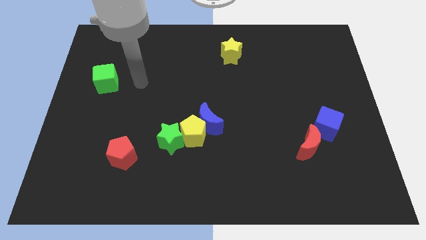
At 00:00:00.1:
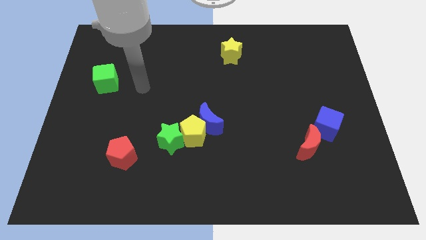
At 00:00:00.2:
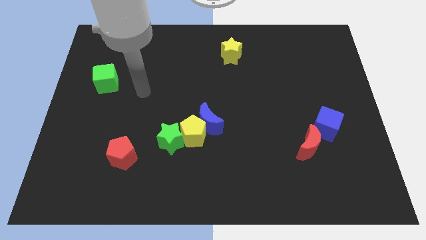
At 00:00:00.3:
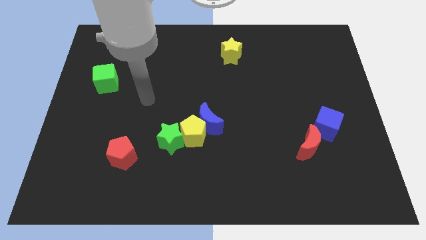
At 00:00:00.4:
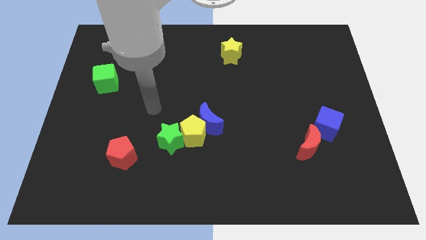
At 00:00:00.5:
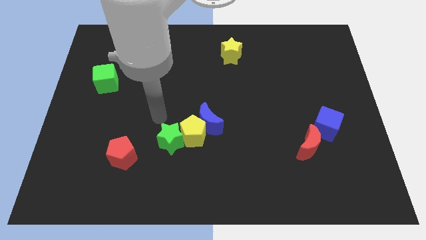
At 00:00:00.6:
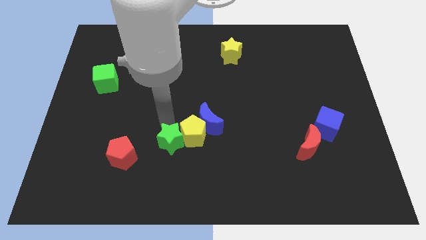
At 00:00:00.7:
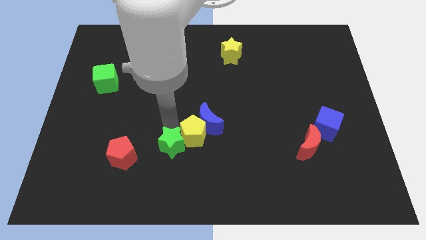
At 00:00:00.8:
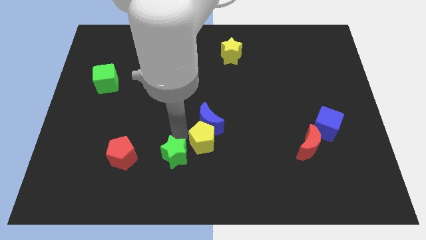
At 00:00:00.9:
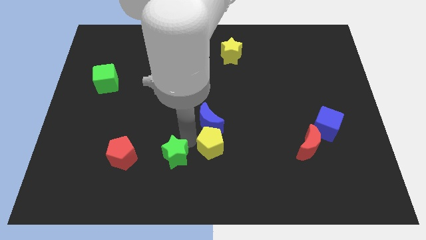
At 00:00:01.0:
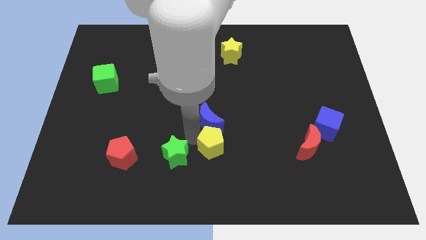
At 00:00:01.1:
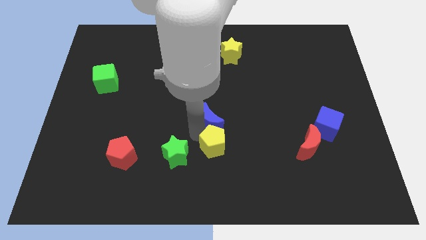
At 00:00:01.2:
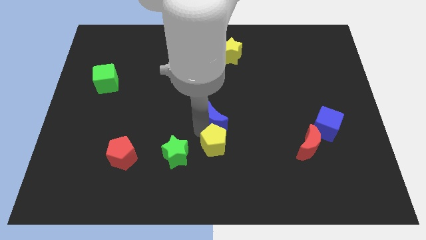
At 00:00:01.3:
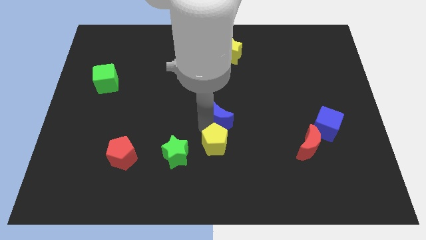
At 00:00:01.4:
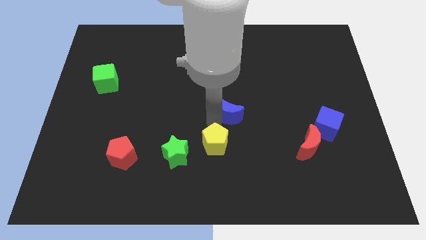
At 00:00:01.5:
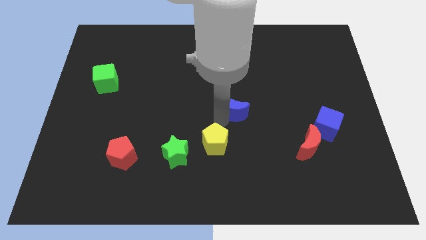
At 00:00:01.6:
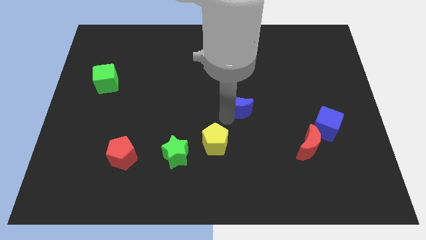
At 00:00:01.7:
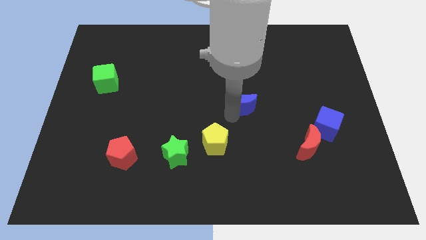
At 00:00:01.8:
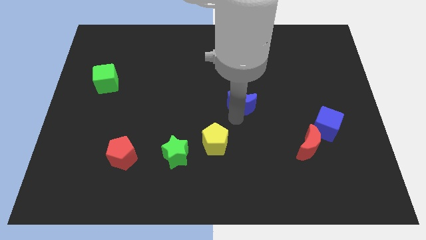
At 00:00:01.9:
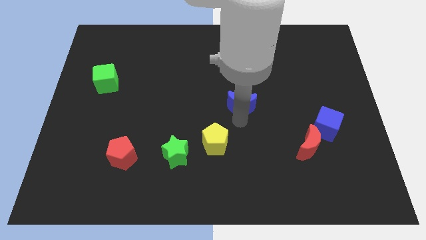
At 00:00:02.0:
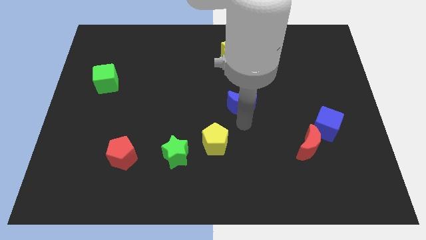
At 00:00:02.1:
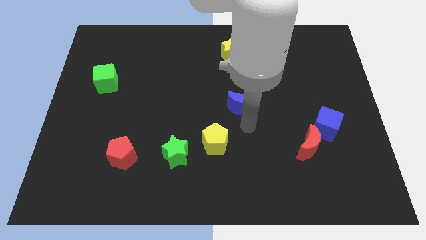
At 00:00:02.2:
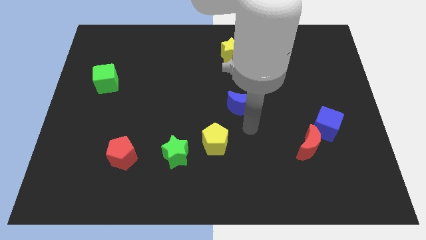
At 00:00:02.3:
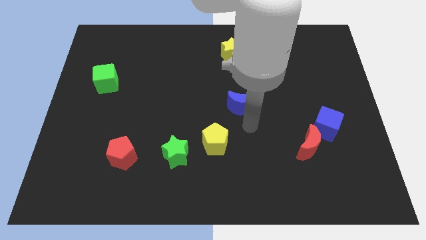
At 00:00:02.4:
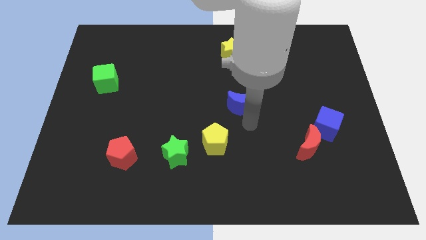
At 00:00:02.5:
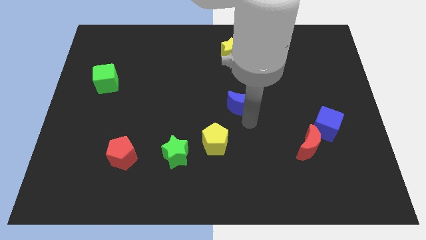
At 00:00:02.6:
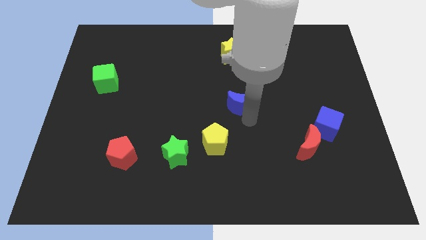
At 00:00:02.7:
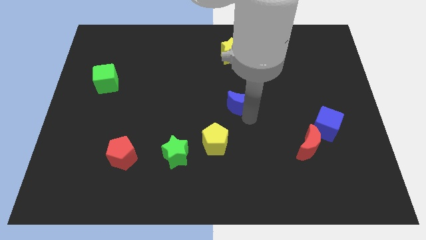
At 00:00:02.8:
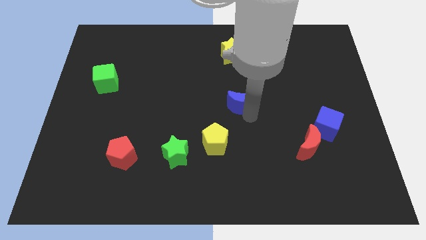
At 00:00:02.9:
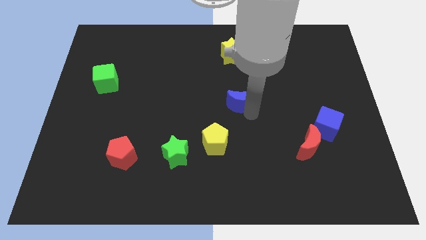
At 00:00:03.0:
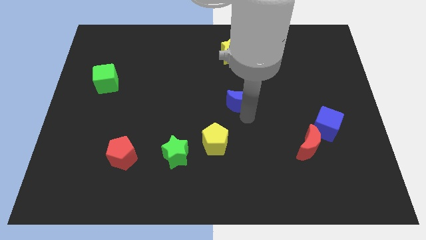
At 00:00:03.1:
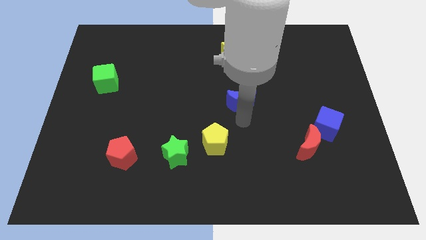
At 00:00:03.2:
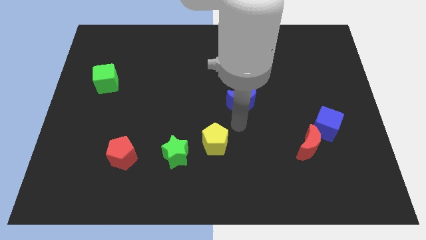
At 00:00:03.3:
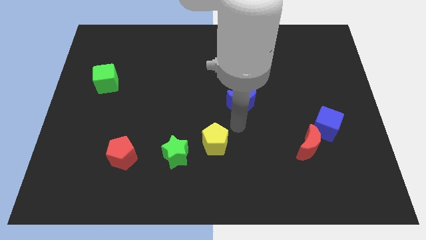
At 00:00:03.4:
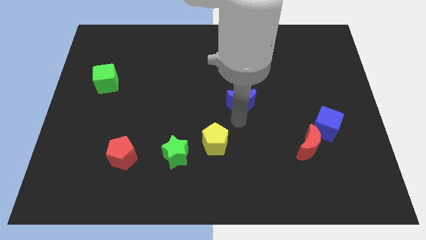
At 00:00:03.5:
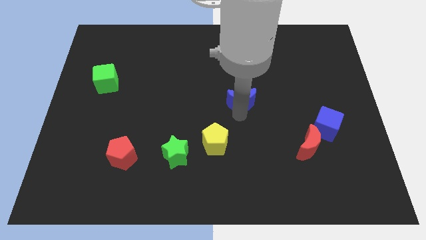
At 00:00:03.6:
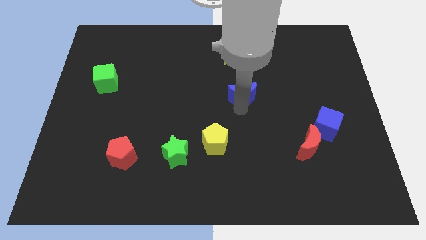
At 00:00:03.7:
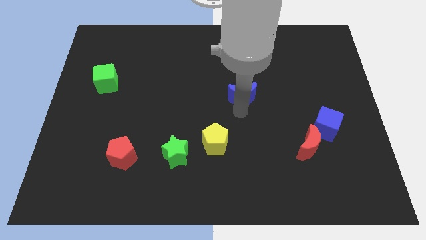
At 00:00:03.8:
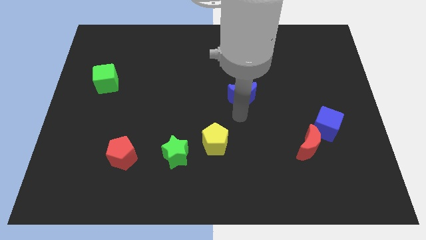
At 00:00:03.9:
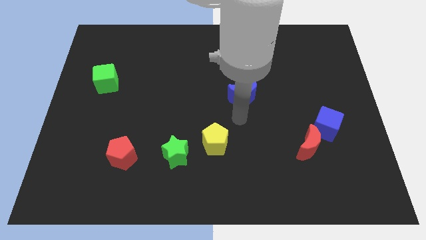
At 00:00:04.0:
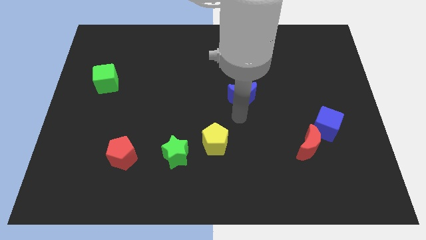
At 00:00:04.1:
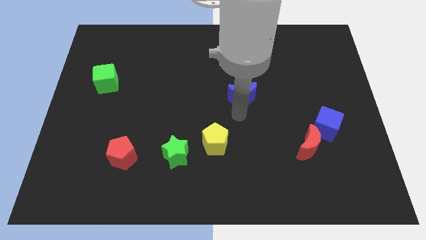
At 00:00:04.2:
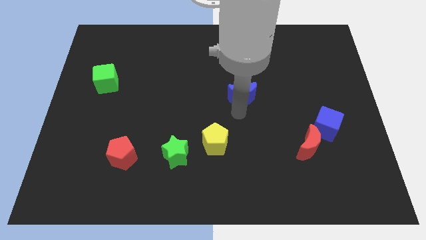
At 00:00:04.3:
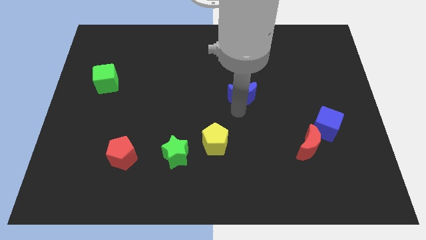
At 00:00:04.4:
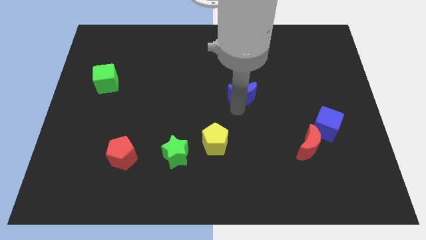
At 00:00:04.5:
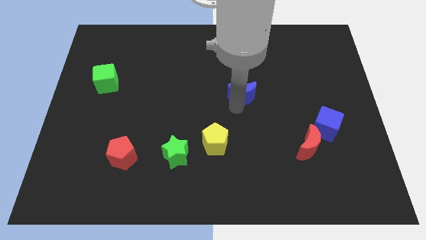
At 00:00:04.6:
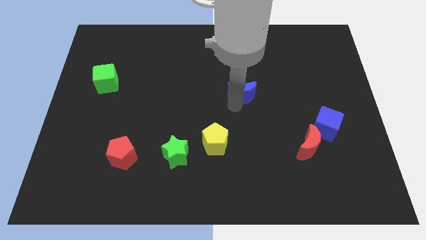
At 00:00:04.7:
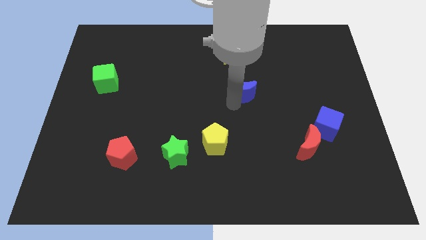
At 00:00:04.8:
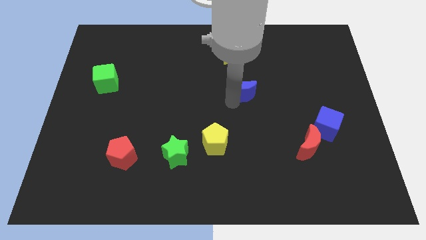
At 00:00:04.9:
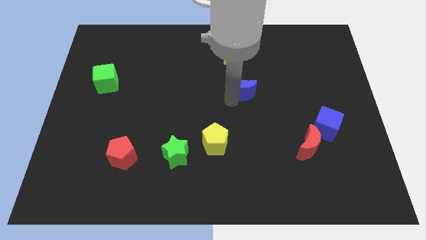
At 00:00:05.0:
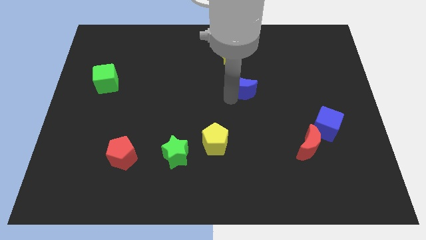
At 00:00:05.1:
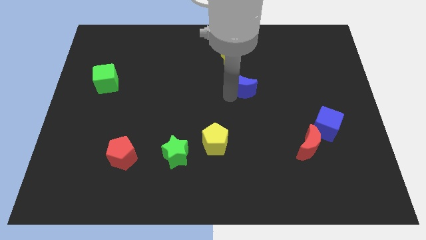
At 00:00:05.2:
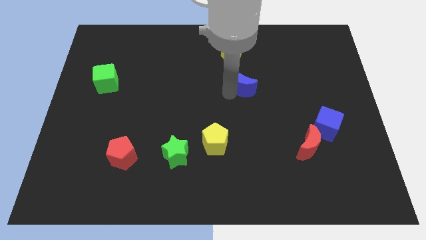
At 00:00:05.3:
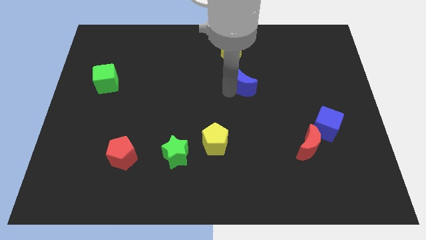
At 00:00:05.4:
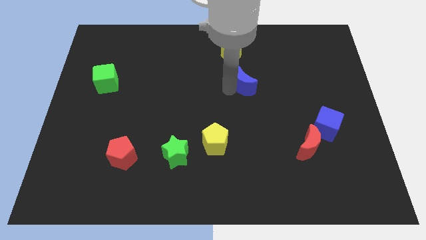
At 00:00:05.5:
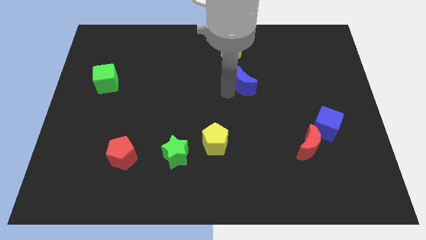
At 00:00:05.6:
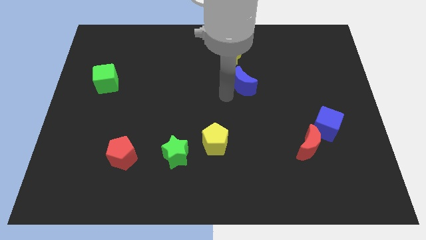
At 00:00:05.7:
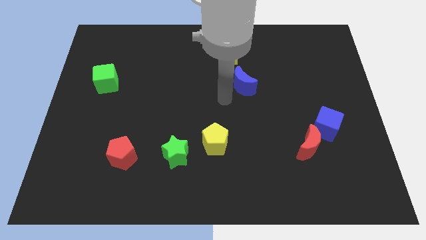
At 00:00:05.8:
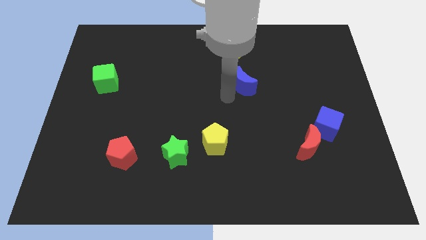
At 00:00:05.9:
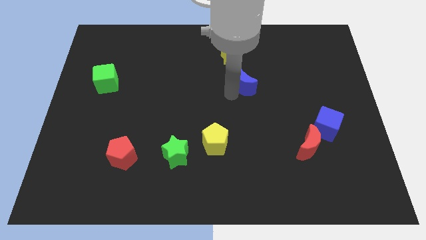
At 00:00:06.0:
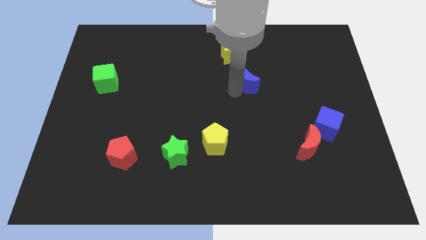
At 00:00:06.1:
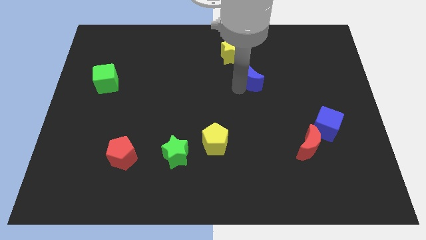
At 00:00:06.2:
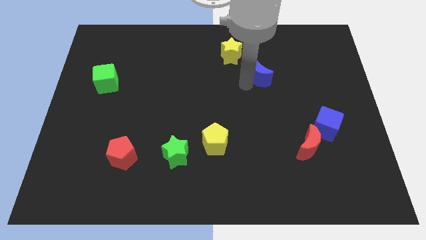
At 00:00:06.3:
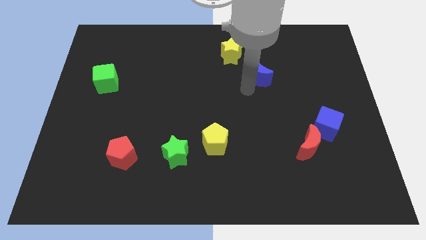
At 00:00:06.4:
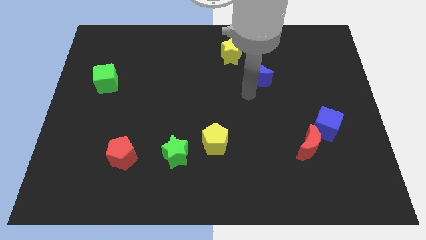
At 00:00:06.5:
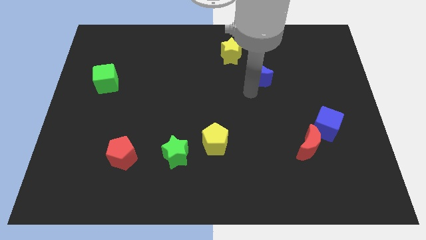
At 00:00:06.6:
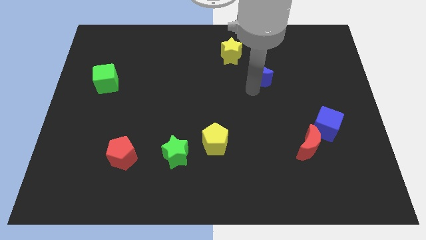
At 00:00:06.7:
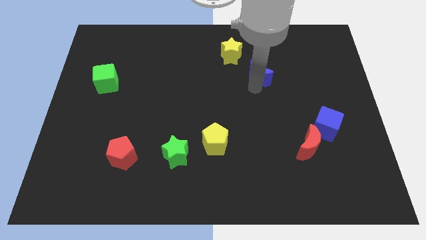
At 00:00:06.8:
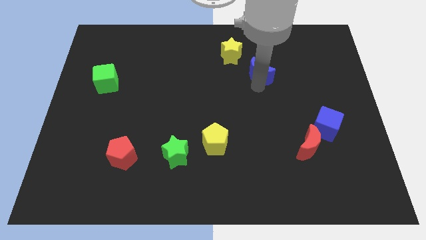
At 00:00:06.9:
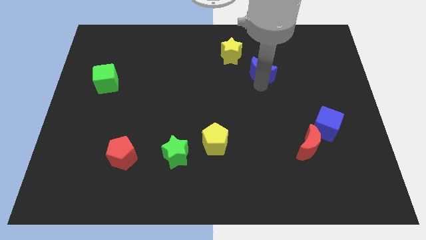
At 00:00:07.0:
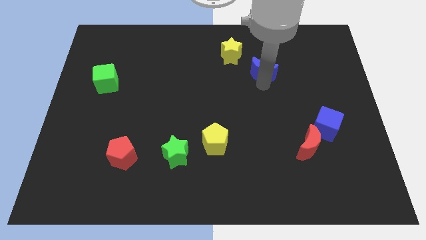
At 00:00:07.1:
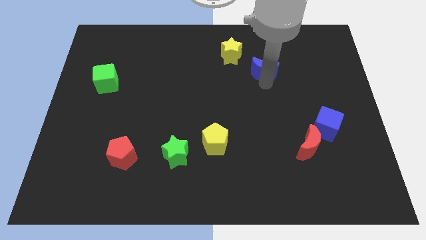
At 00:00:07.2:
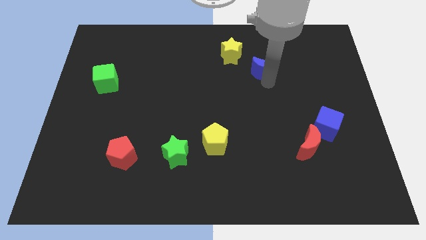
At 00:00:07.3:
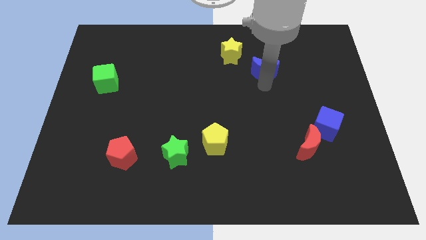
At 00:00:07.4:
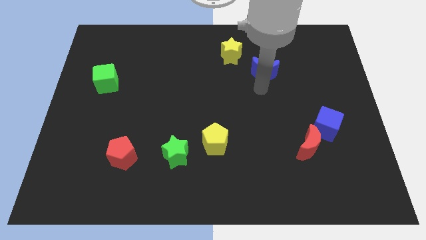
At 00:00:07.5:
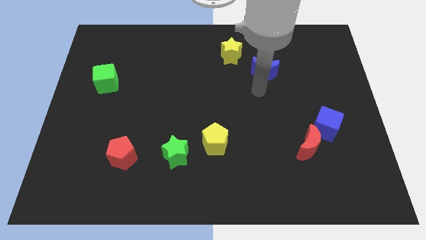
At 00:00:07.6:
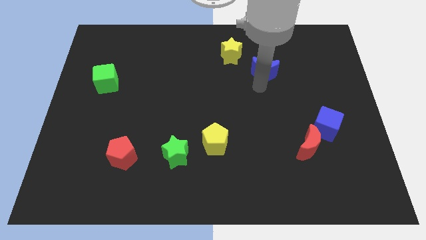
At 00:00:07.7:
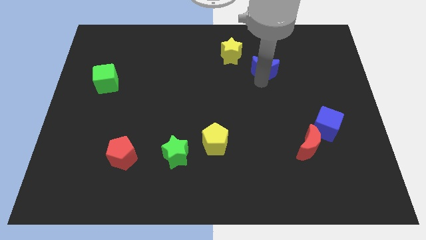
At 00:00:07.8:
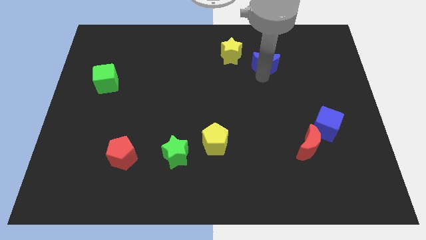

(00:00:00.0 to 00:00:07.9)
push the blue moon to the right side of the yellow star
